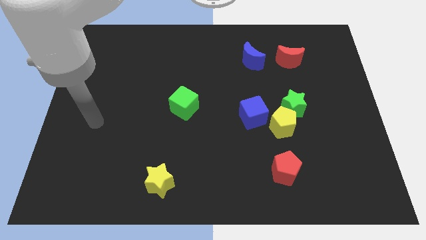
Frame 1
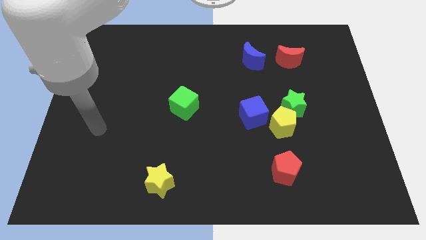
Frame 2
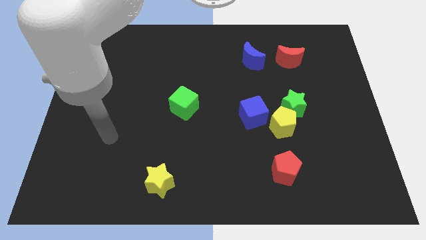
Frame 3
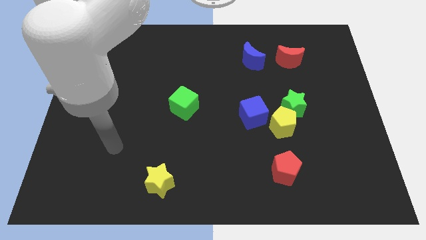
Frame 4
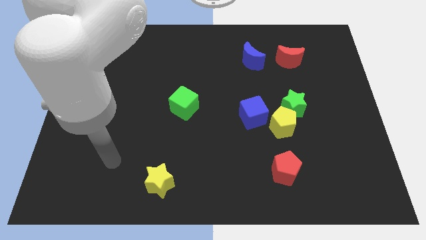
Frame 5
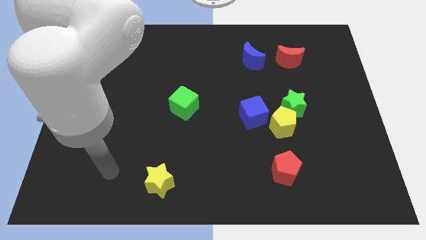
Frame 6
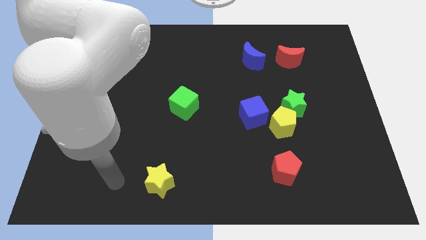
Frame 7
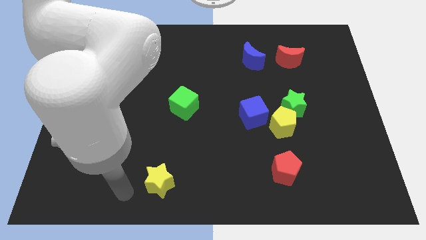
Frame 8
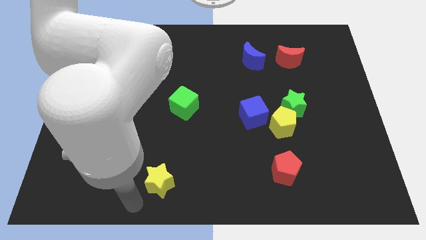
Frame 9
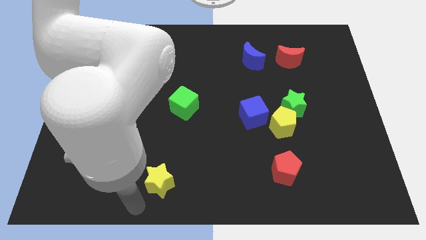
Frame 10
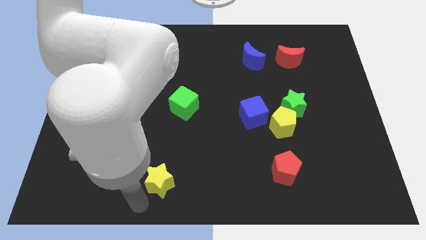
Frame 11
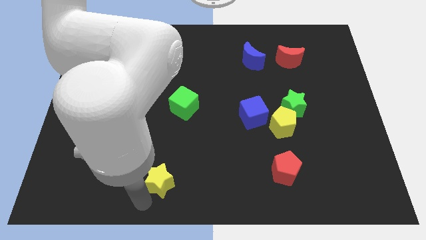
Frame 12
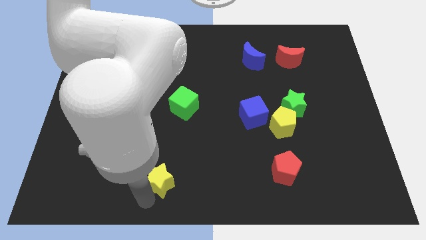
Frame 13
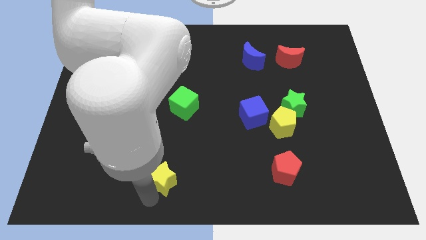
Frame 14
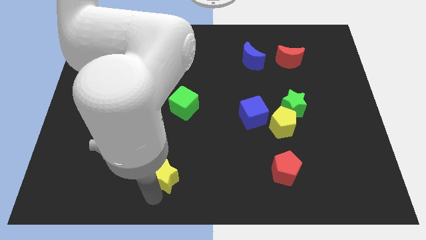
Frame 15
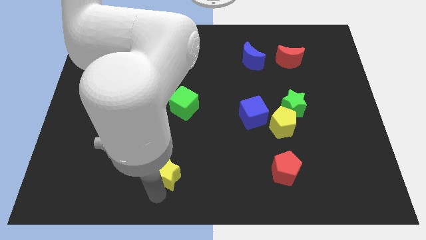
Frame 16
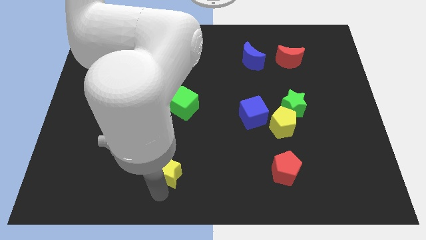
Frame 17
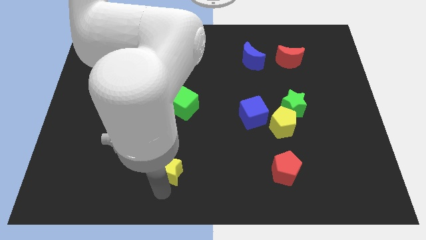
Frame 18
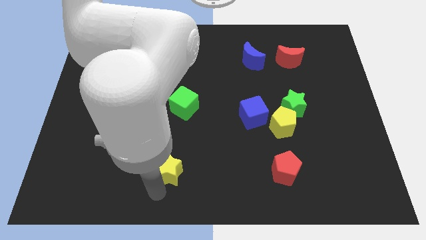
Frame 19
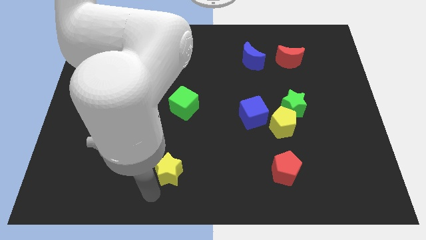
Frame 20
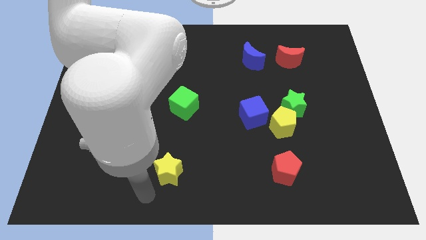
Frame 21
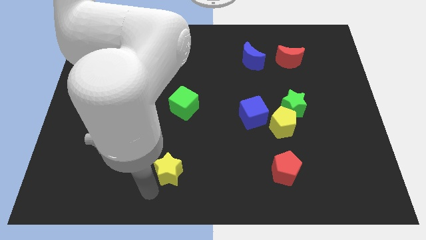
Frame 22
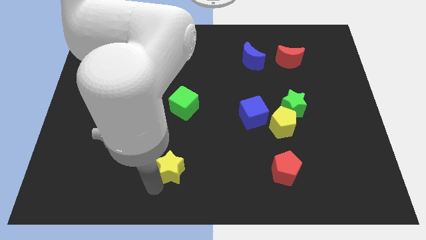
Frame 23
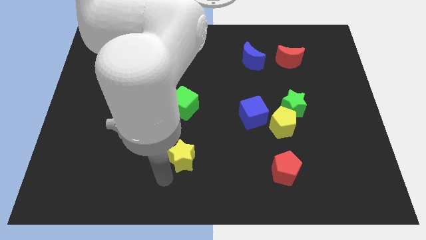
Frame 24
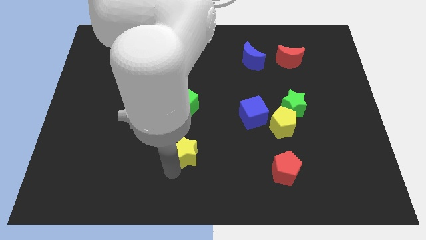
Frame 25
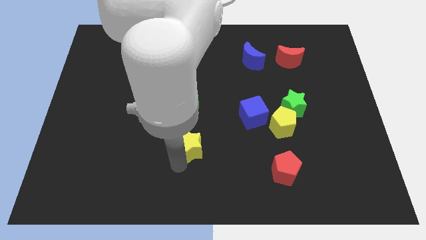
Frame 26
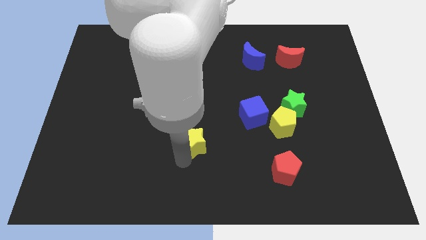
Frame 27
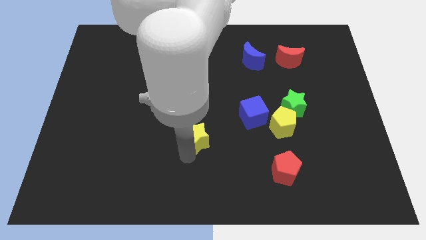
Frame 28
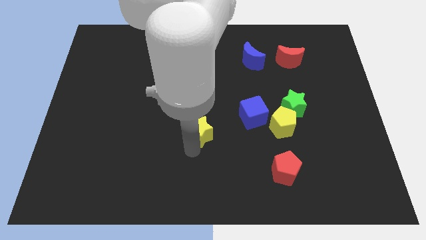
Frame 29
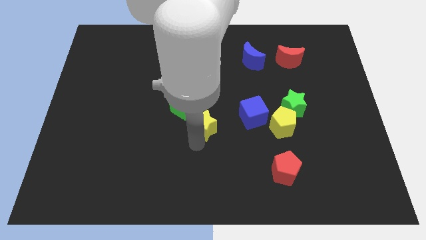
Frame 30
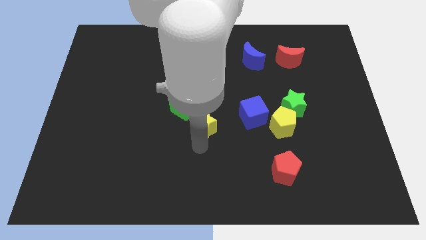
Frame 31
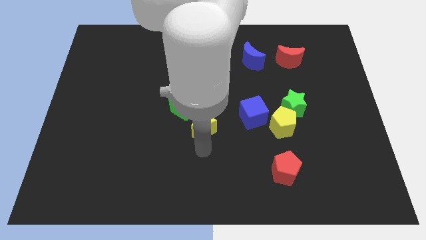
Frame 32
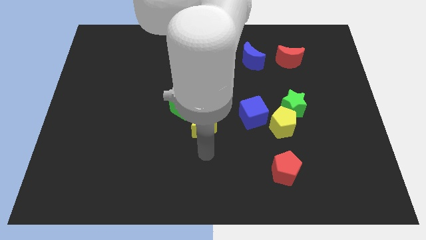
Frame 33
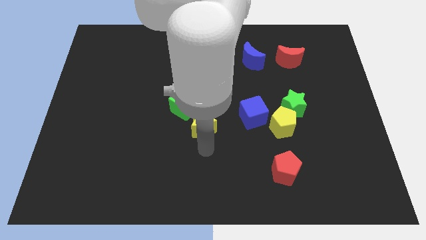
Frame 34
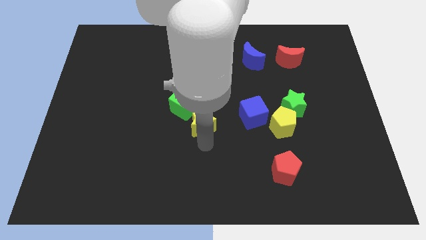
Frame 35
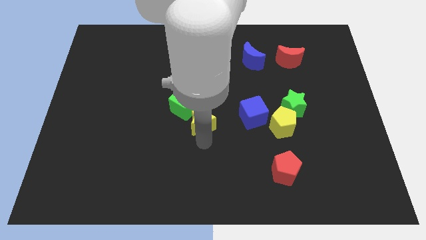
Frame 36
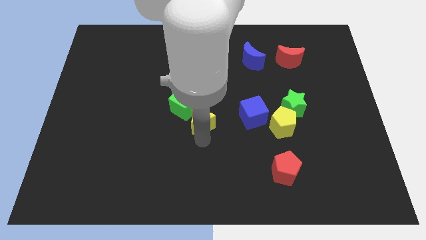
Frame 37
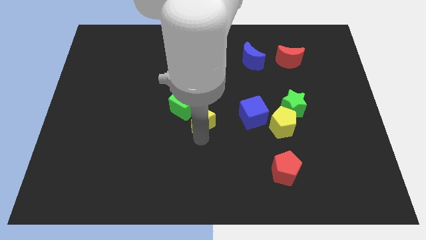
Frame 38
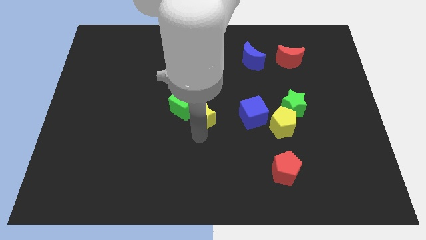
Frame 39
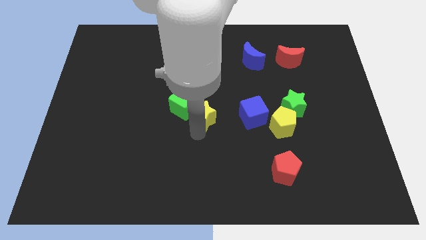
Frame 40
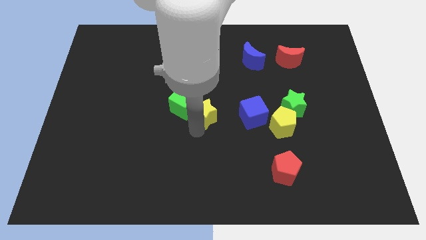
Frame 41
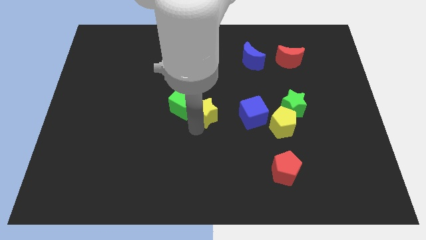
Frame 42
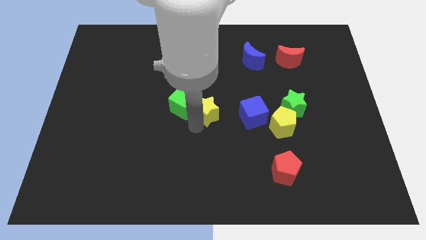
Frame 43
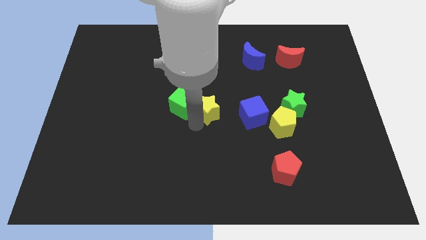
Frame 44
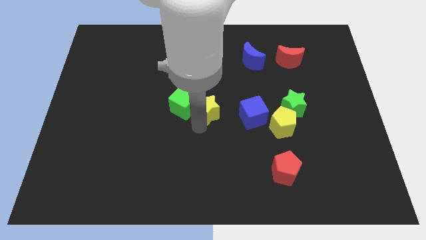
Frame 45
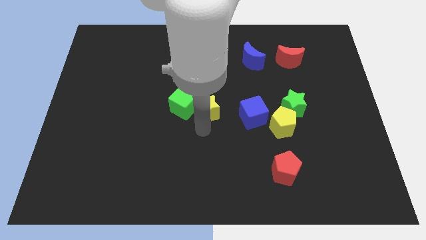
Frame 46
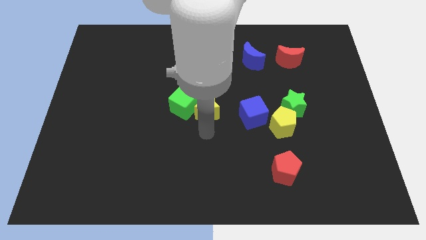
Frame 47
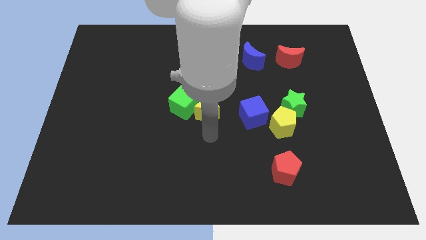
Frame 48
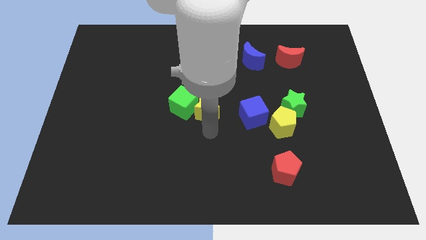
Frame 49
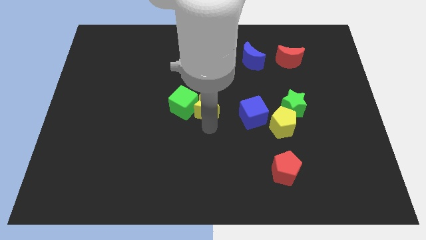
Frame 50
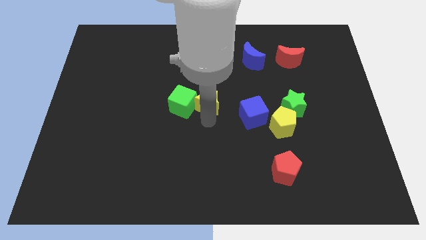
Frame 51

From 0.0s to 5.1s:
push the yellow star to the top right of the green cube

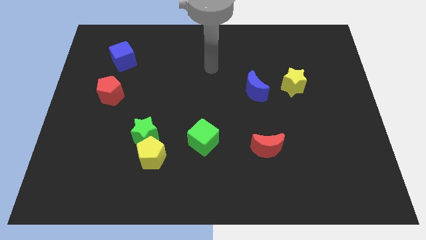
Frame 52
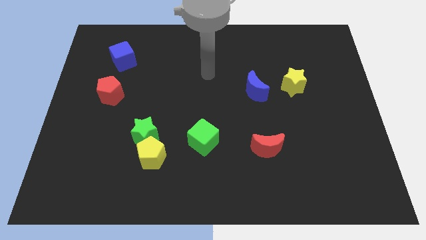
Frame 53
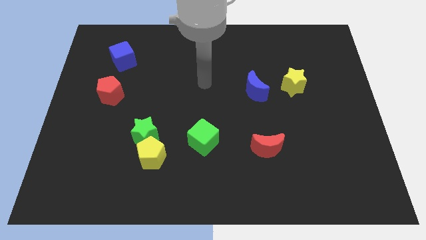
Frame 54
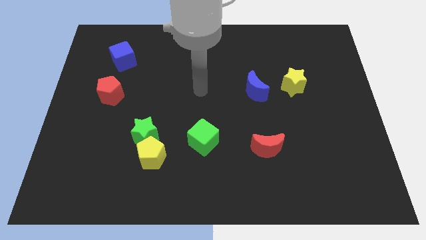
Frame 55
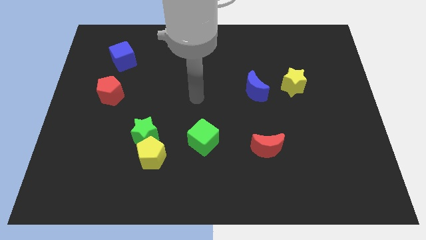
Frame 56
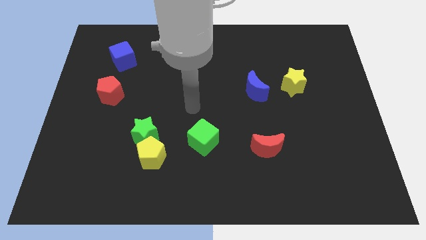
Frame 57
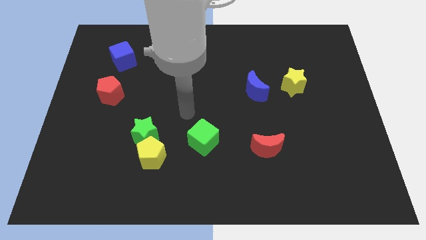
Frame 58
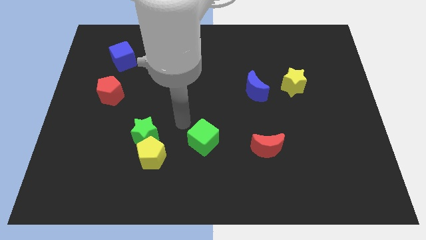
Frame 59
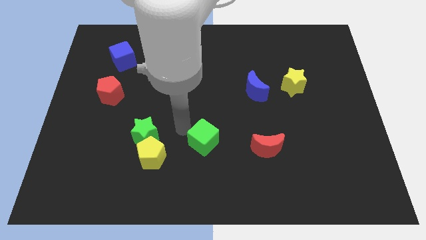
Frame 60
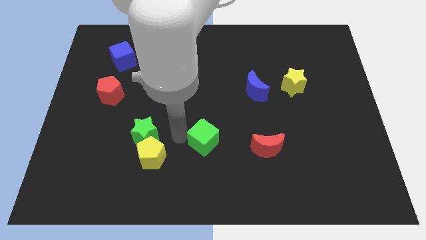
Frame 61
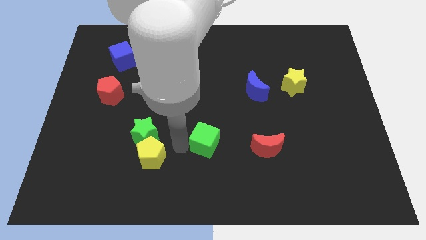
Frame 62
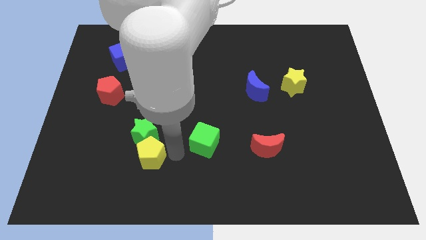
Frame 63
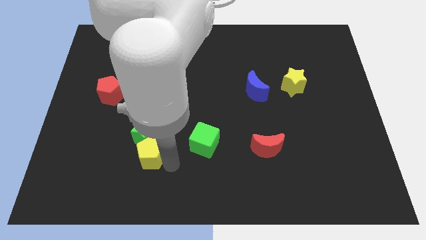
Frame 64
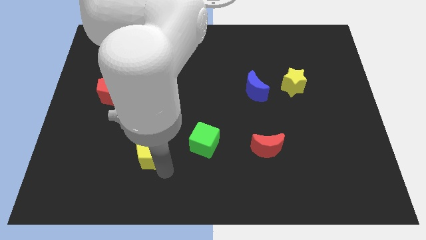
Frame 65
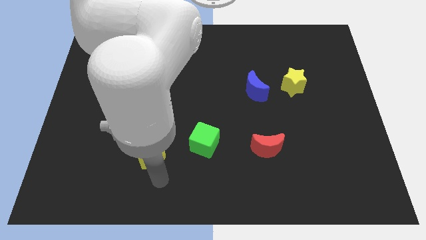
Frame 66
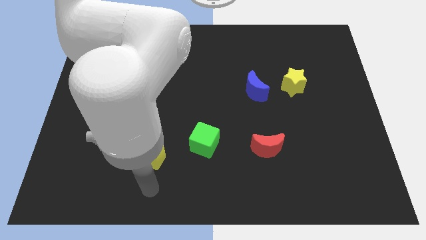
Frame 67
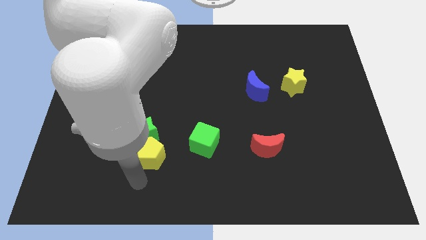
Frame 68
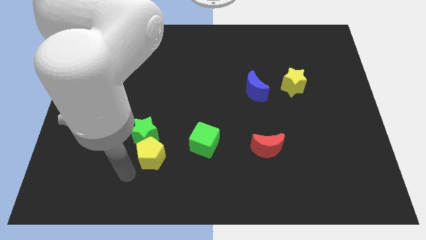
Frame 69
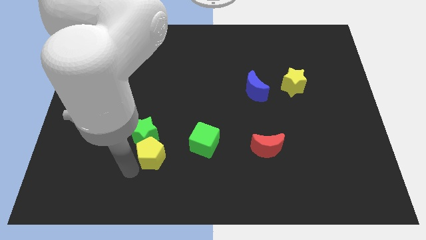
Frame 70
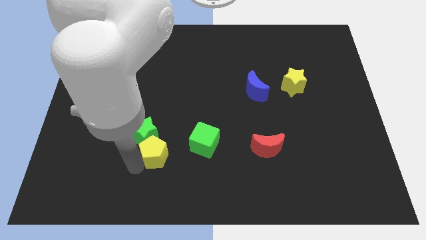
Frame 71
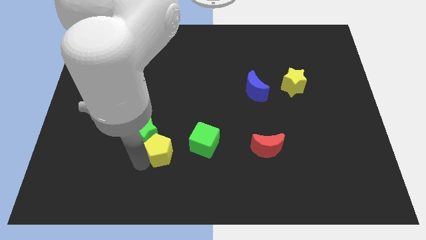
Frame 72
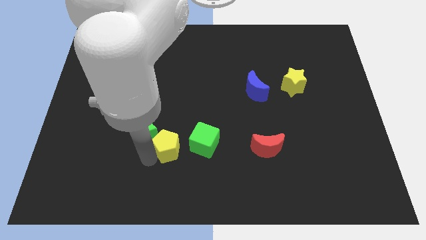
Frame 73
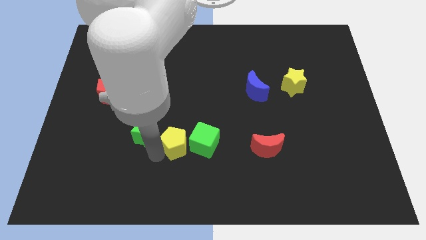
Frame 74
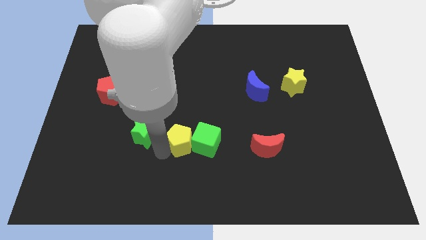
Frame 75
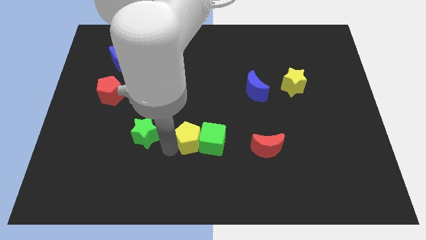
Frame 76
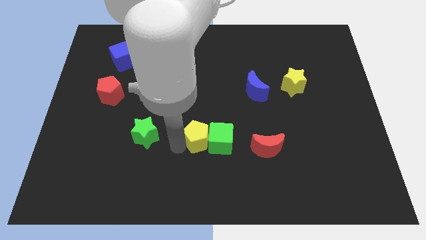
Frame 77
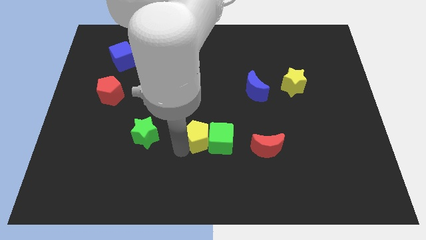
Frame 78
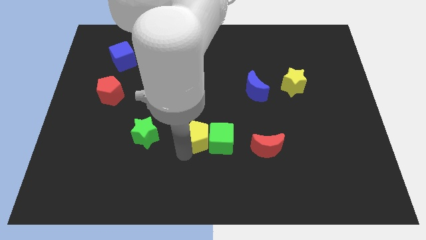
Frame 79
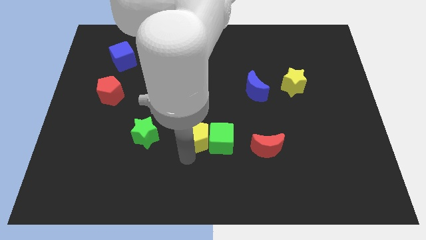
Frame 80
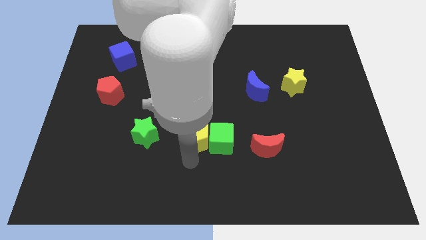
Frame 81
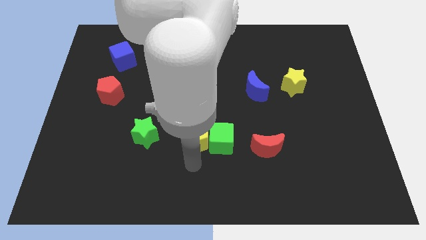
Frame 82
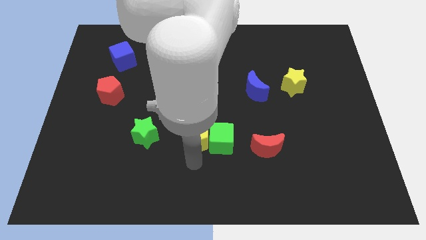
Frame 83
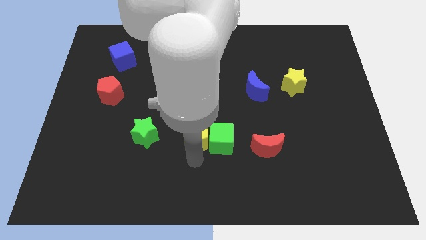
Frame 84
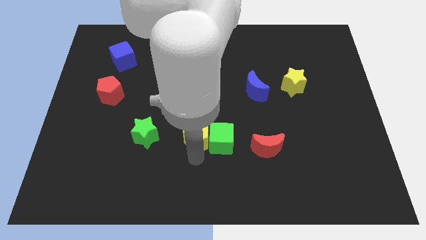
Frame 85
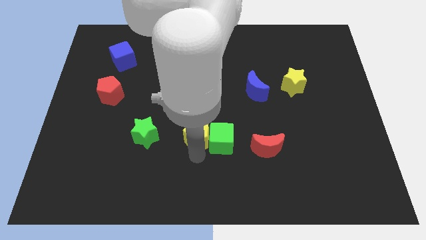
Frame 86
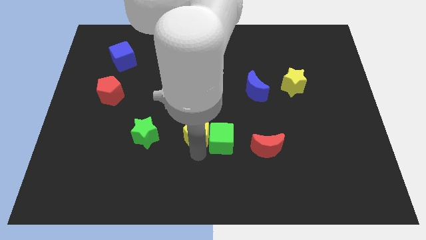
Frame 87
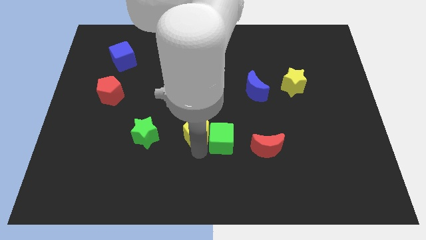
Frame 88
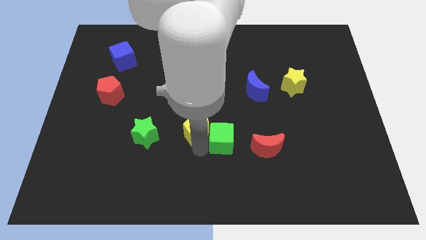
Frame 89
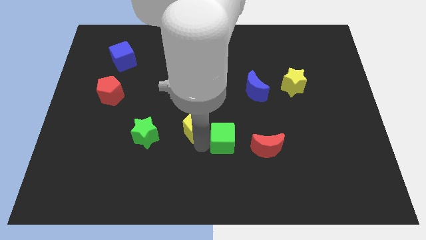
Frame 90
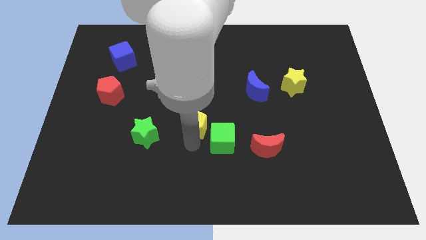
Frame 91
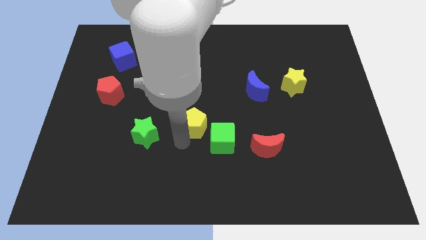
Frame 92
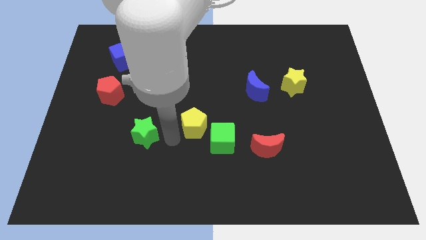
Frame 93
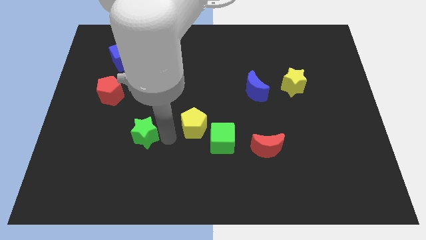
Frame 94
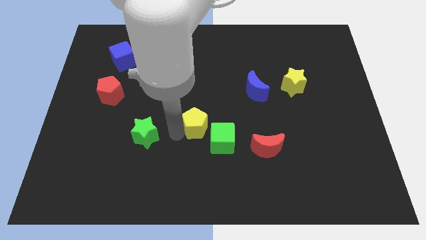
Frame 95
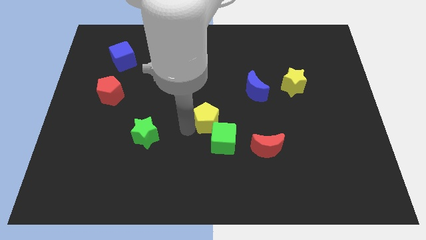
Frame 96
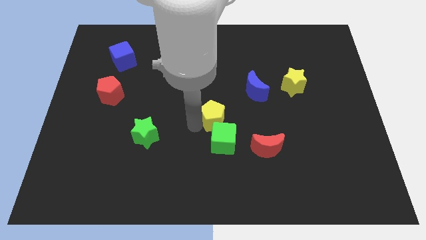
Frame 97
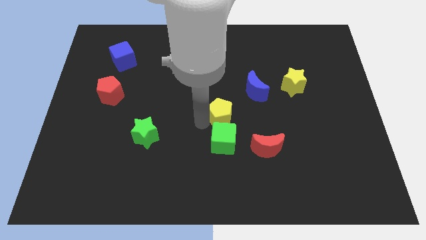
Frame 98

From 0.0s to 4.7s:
slide the yellow pentagon diagonally down and to the left of the blue moon
